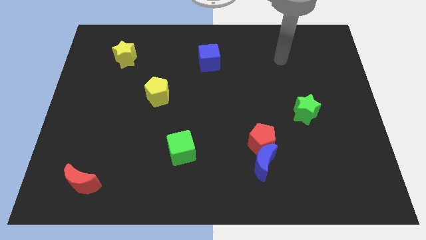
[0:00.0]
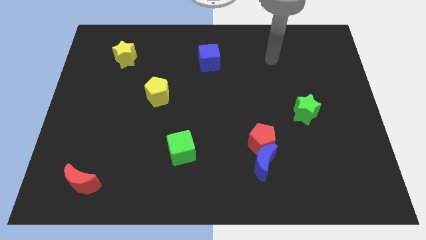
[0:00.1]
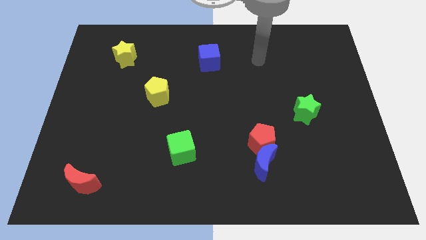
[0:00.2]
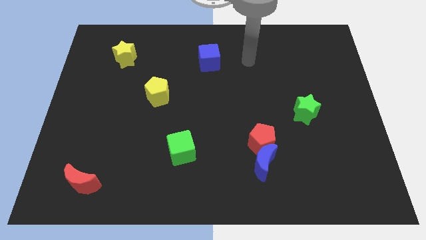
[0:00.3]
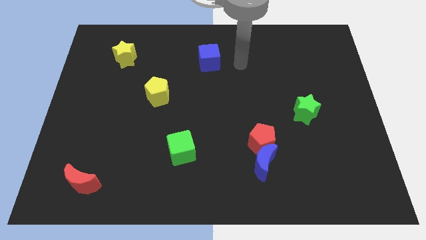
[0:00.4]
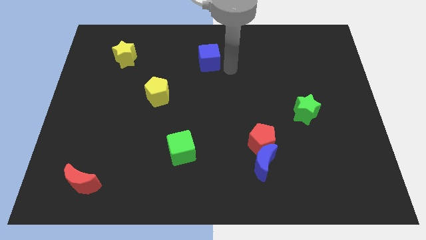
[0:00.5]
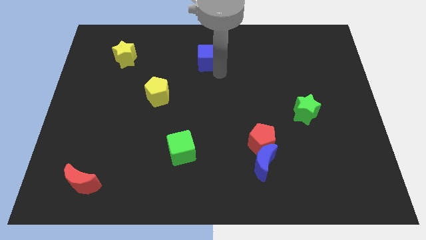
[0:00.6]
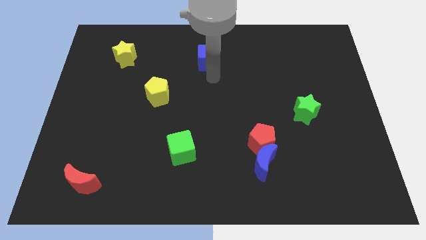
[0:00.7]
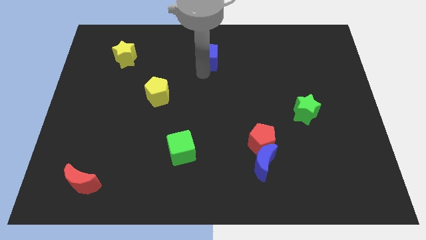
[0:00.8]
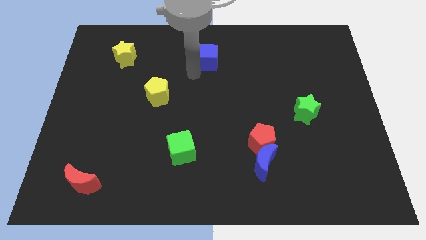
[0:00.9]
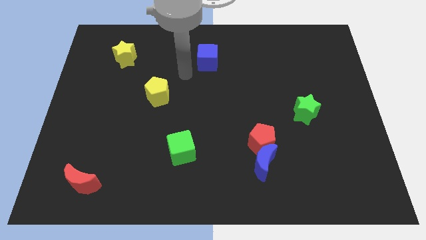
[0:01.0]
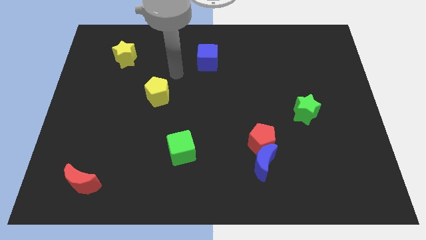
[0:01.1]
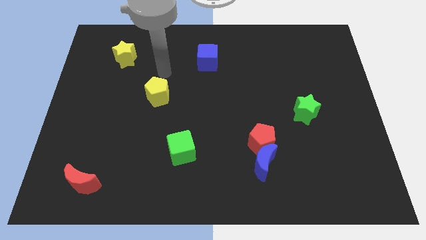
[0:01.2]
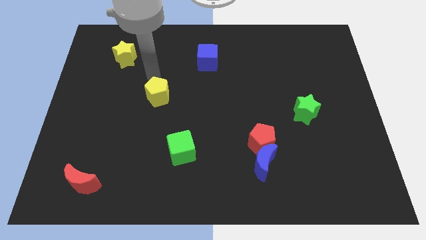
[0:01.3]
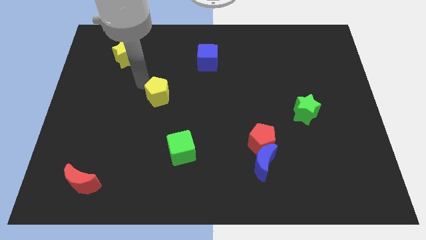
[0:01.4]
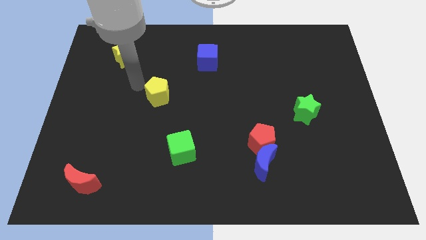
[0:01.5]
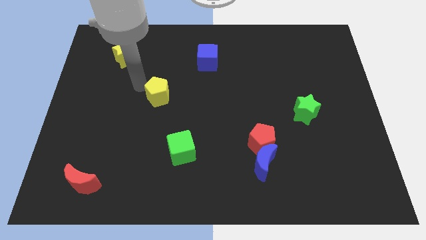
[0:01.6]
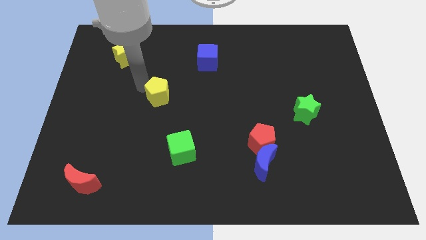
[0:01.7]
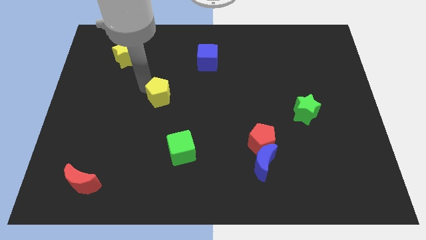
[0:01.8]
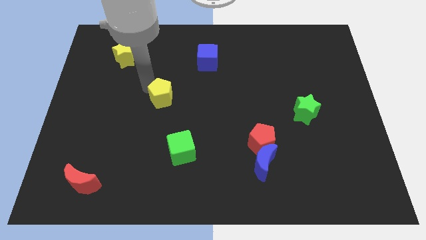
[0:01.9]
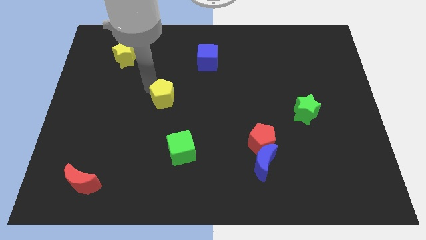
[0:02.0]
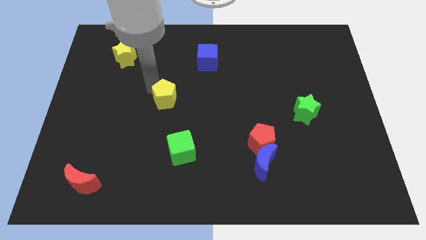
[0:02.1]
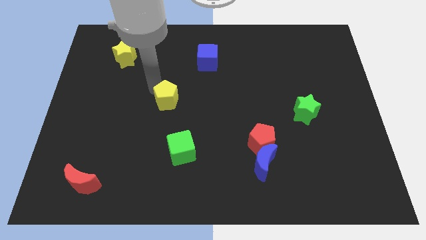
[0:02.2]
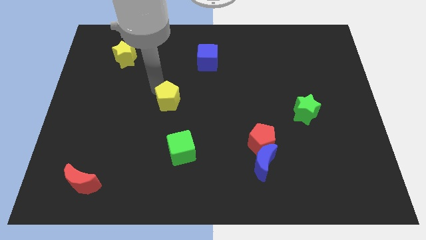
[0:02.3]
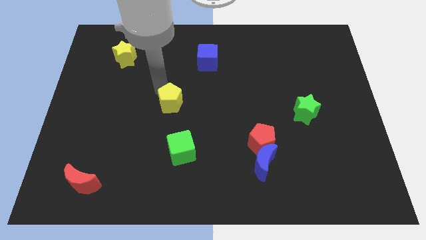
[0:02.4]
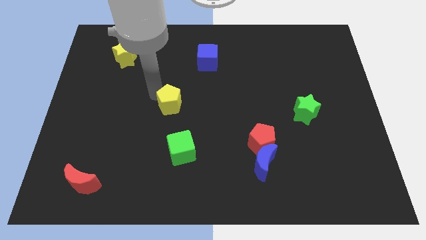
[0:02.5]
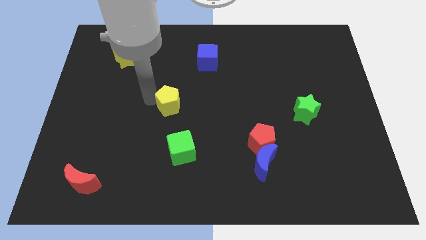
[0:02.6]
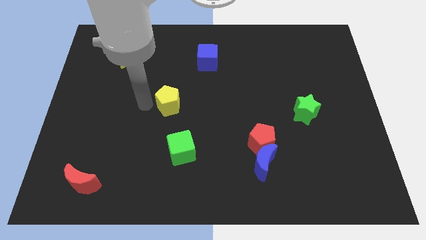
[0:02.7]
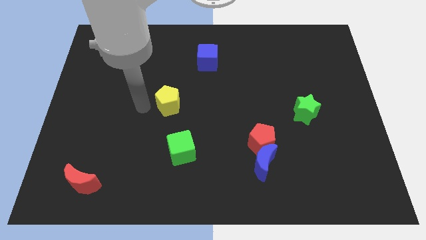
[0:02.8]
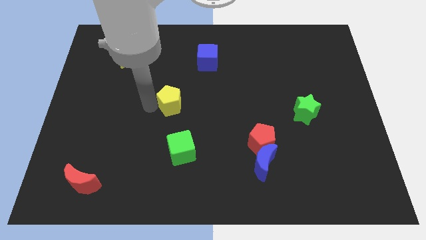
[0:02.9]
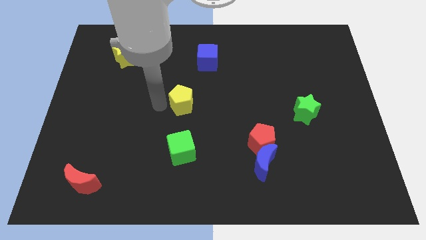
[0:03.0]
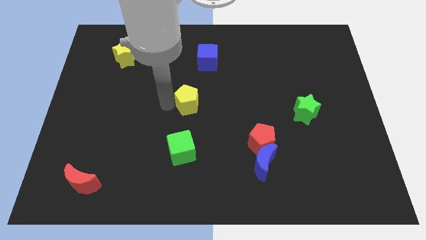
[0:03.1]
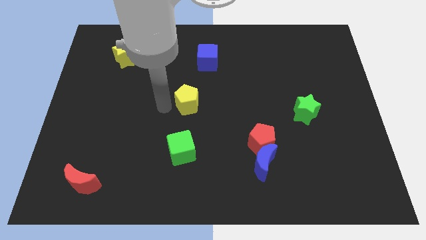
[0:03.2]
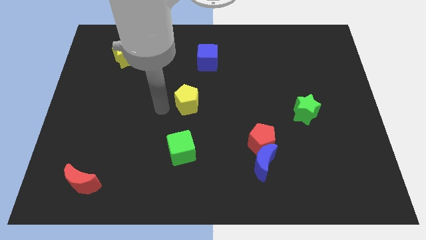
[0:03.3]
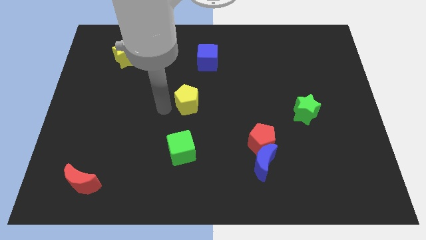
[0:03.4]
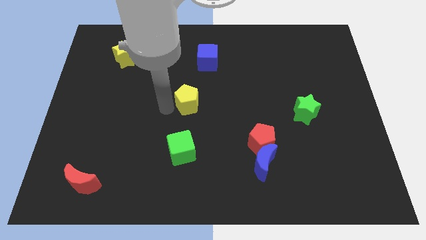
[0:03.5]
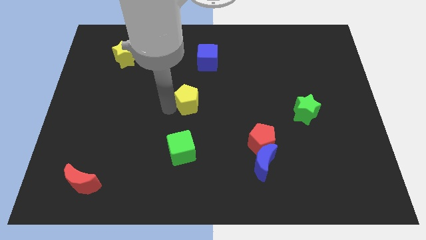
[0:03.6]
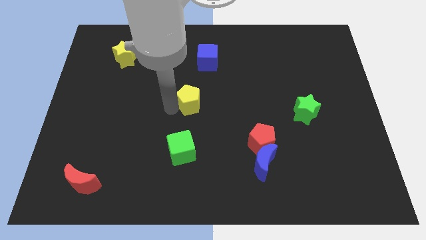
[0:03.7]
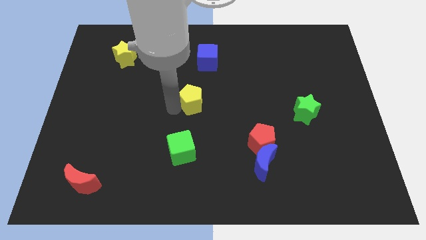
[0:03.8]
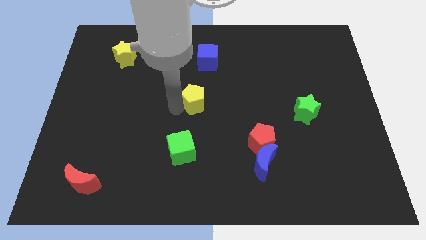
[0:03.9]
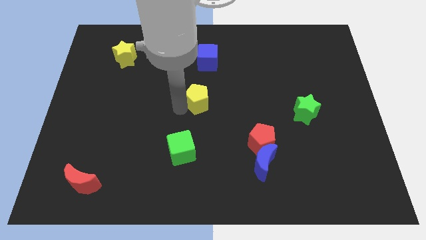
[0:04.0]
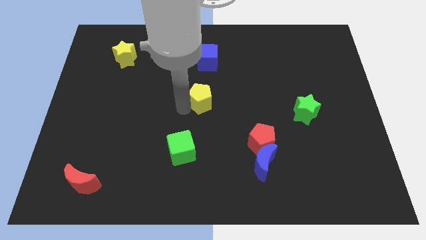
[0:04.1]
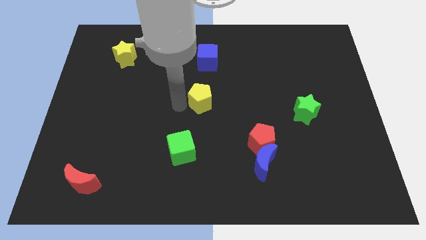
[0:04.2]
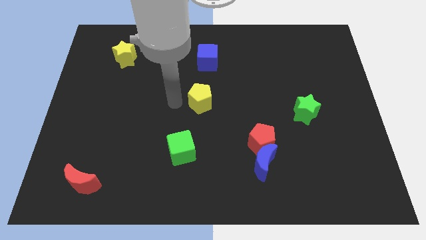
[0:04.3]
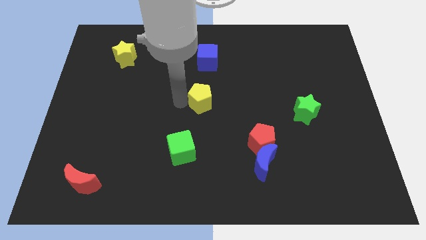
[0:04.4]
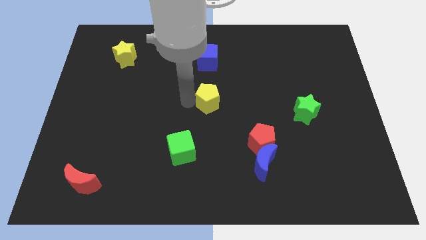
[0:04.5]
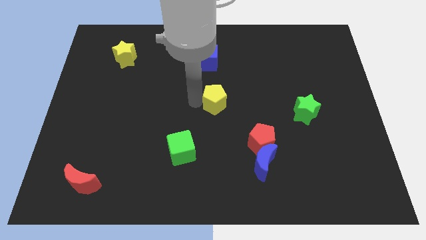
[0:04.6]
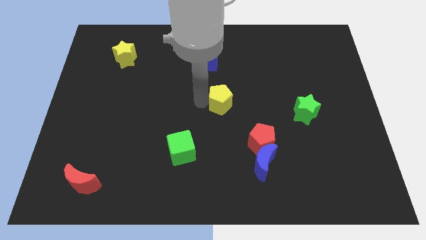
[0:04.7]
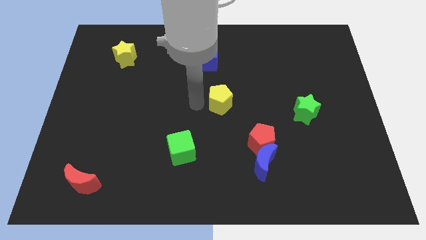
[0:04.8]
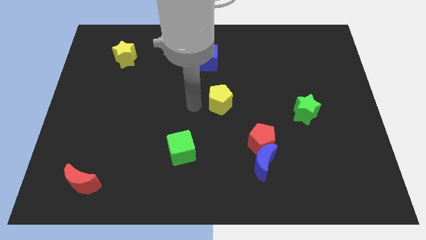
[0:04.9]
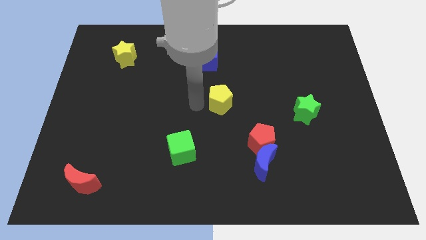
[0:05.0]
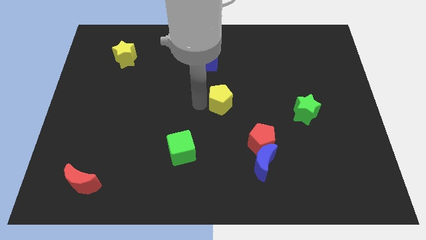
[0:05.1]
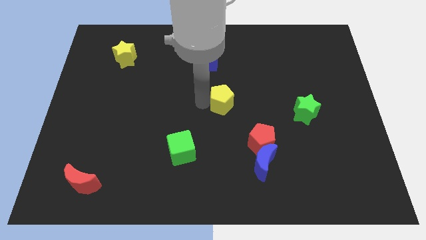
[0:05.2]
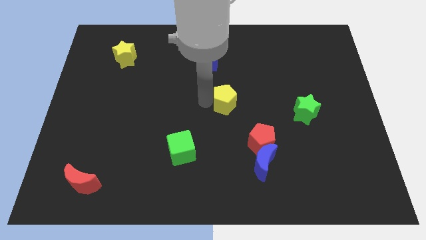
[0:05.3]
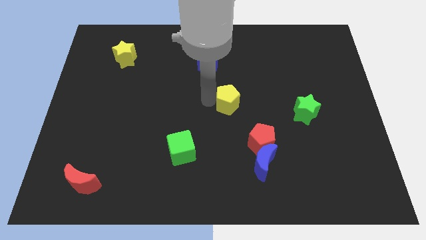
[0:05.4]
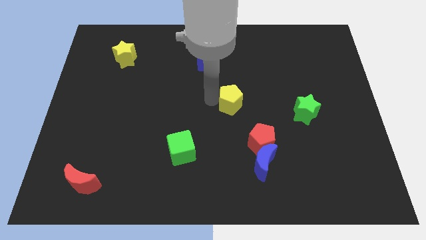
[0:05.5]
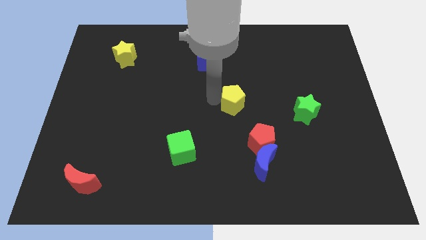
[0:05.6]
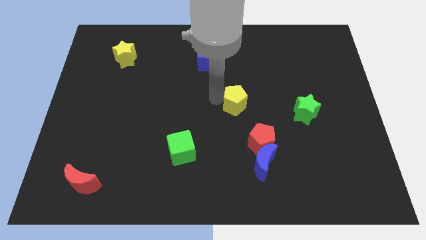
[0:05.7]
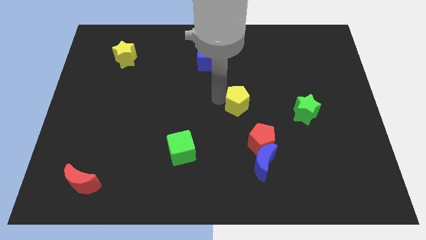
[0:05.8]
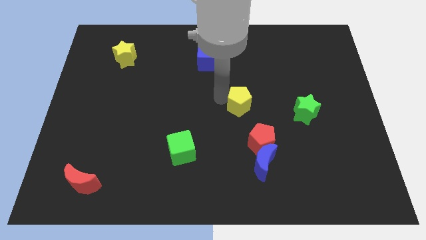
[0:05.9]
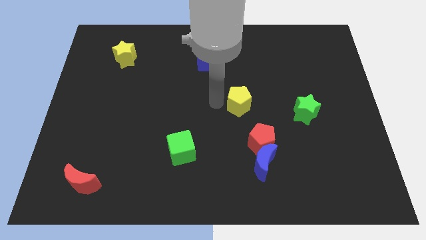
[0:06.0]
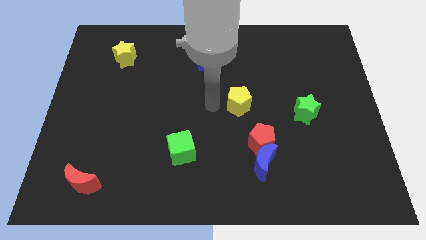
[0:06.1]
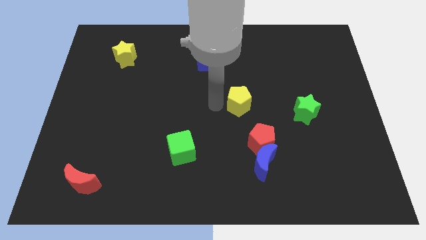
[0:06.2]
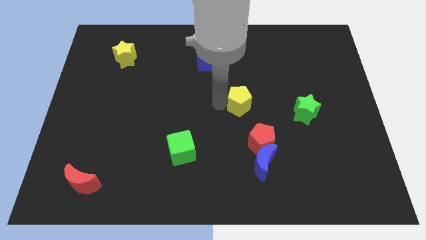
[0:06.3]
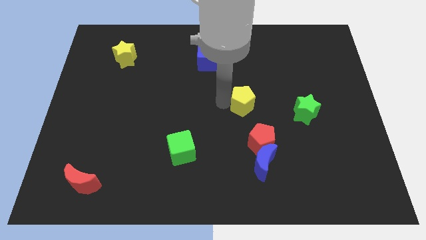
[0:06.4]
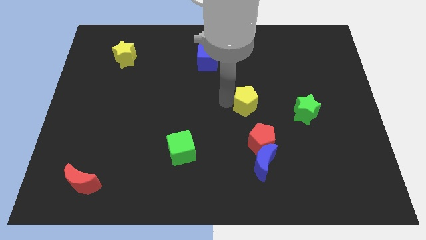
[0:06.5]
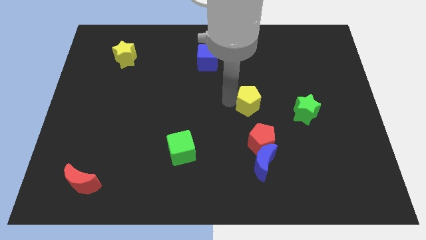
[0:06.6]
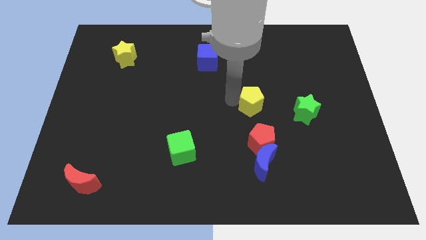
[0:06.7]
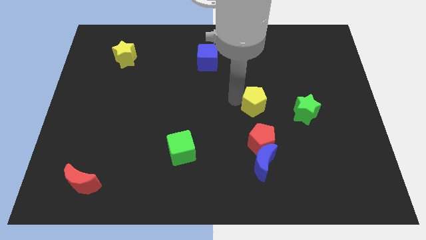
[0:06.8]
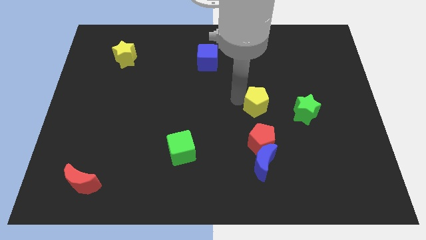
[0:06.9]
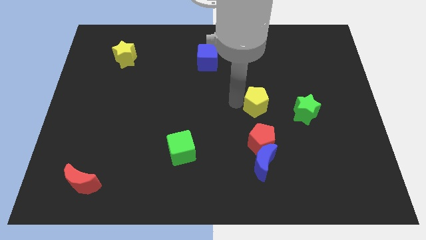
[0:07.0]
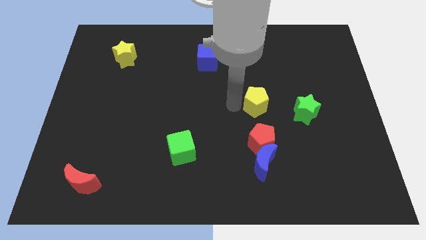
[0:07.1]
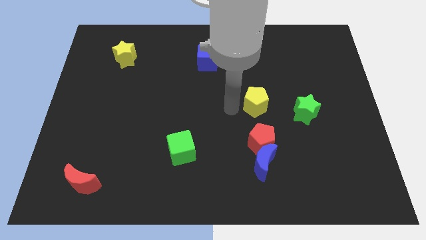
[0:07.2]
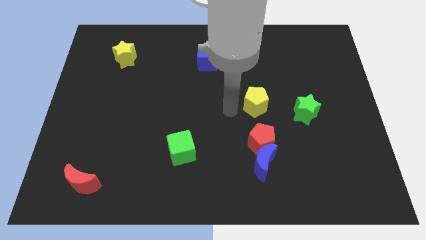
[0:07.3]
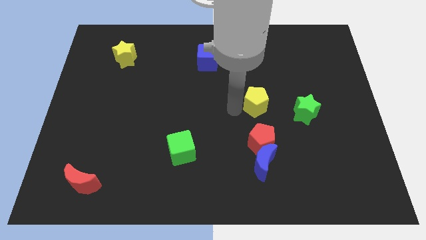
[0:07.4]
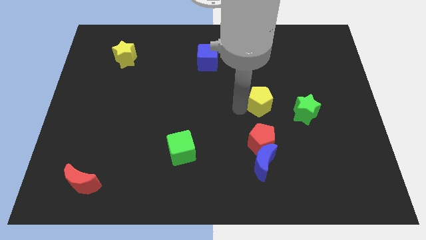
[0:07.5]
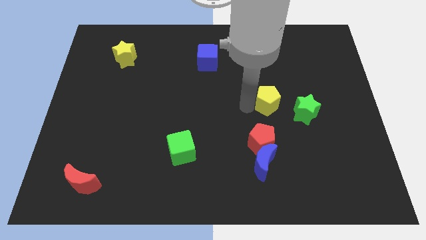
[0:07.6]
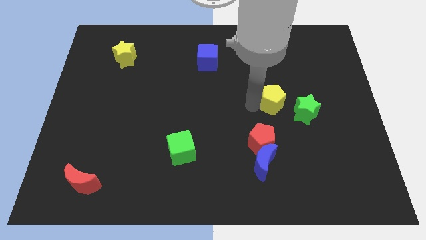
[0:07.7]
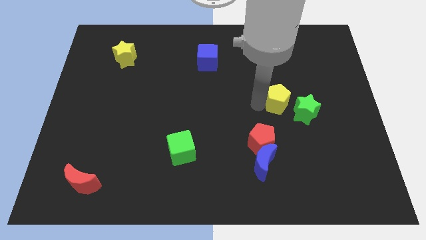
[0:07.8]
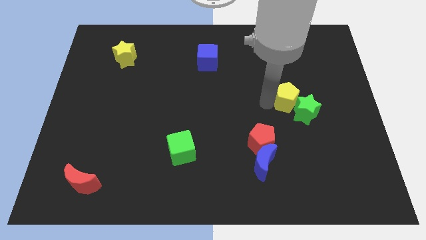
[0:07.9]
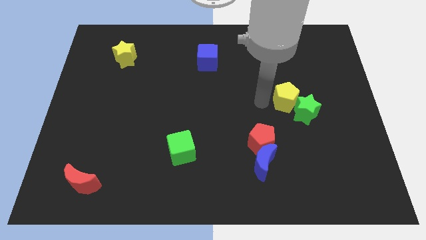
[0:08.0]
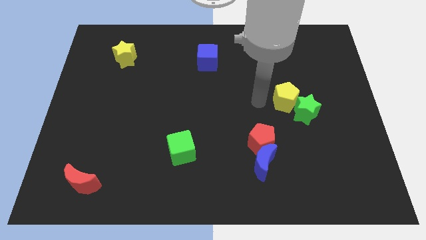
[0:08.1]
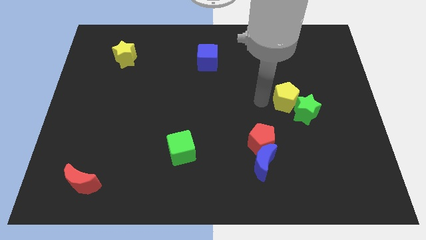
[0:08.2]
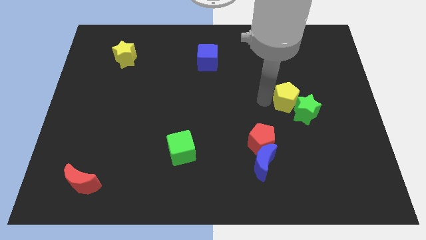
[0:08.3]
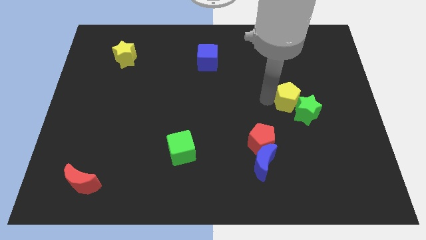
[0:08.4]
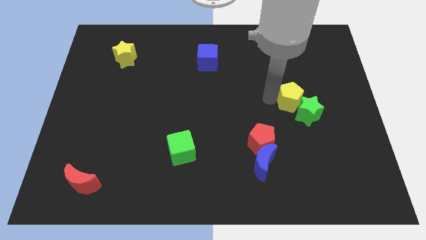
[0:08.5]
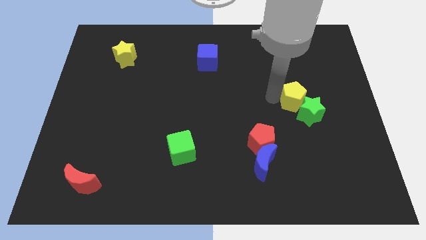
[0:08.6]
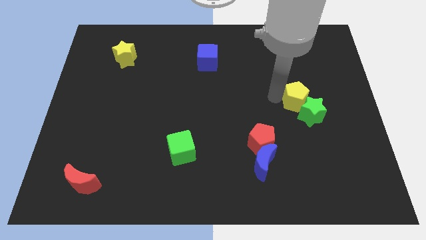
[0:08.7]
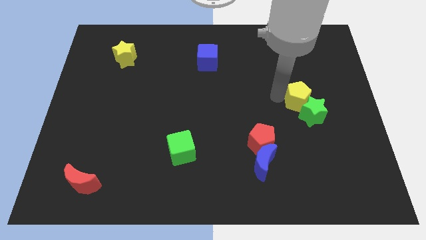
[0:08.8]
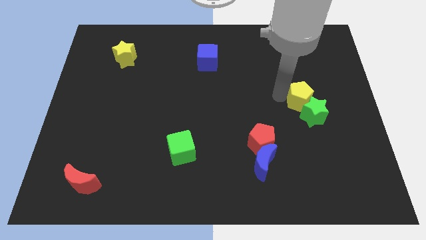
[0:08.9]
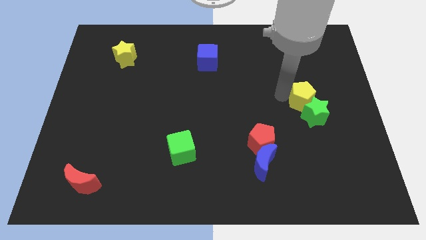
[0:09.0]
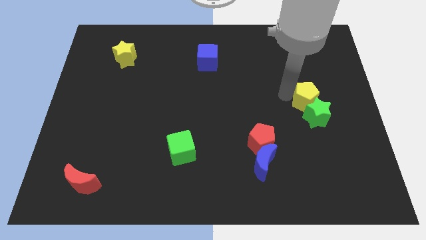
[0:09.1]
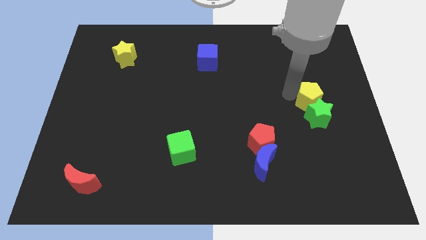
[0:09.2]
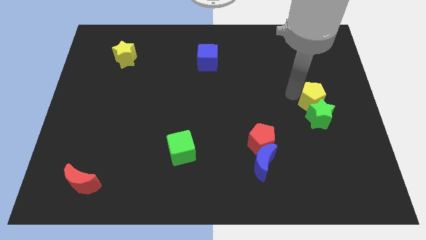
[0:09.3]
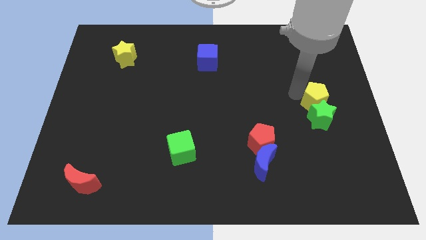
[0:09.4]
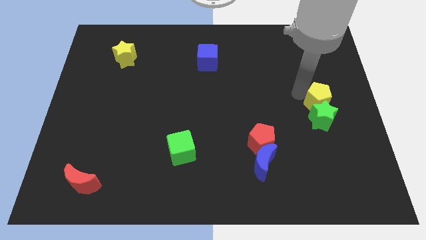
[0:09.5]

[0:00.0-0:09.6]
move the yellow pentagon to the right side
